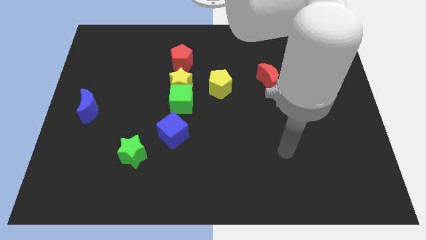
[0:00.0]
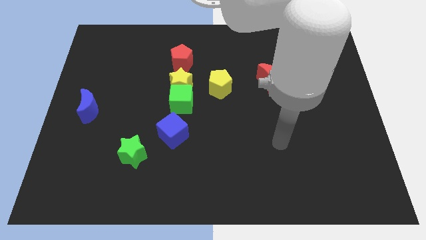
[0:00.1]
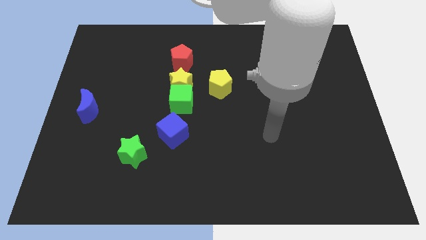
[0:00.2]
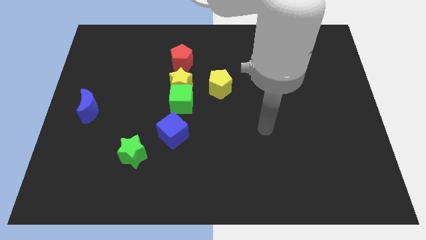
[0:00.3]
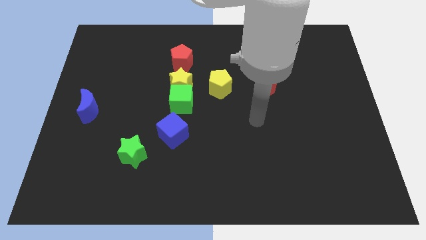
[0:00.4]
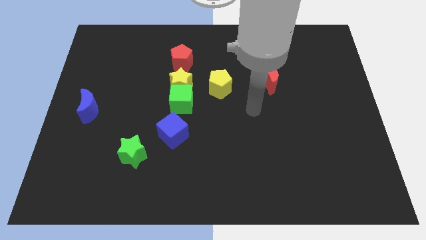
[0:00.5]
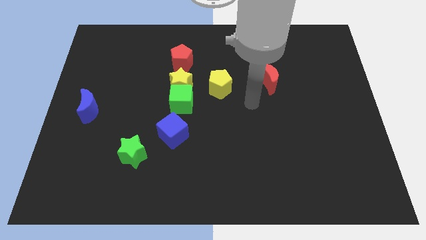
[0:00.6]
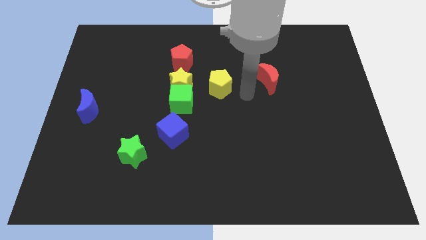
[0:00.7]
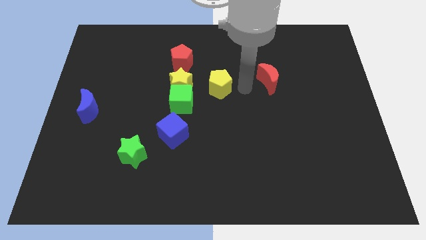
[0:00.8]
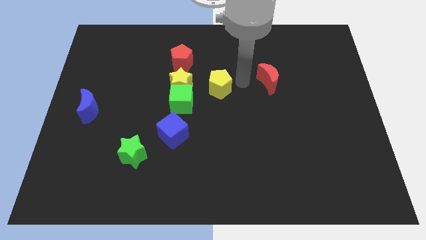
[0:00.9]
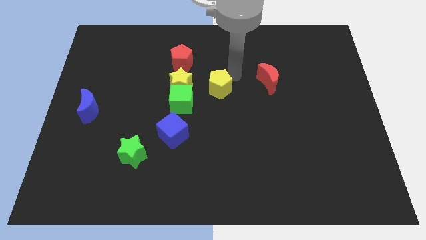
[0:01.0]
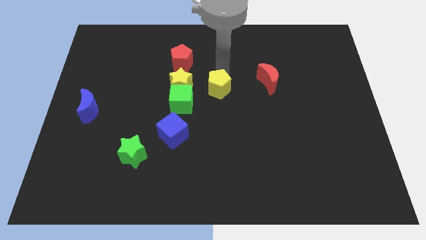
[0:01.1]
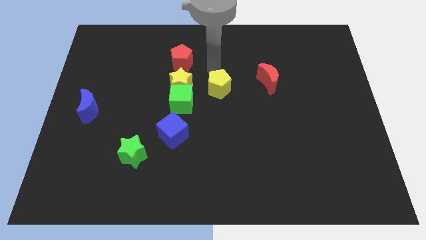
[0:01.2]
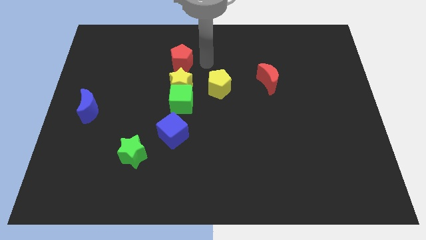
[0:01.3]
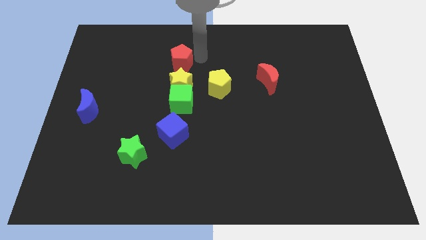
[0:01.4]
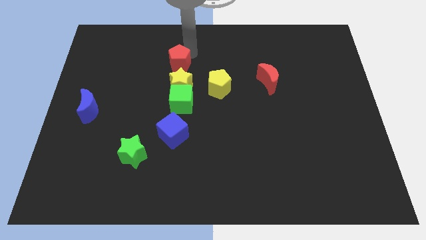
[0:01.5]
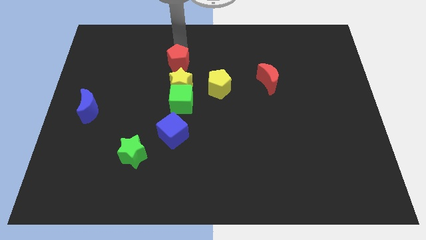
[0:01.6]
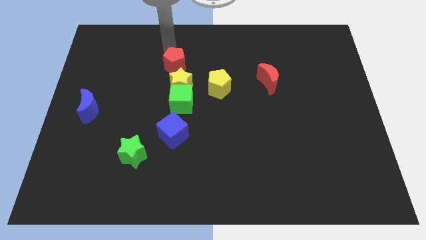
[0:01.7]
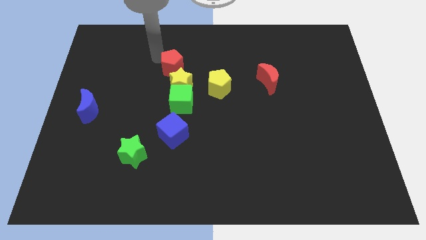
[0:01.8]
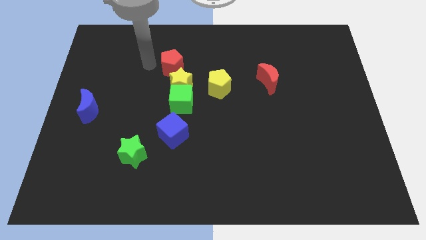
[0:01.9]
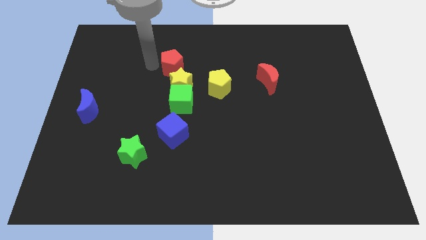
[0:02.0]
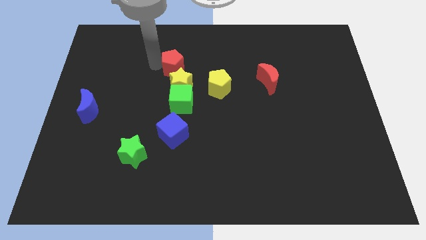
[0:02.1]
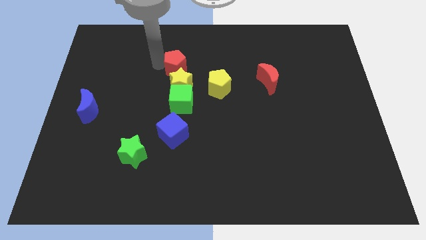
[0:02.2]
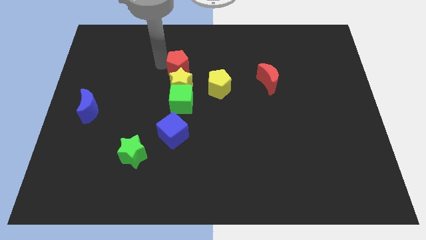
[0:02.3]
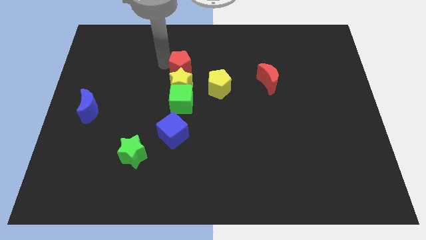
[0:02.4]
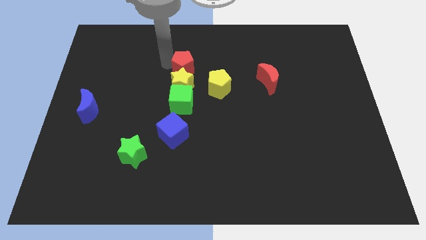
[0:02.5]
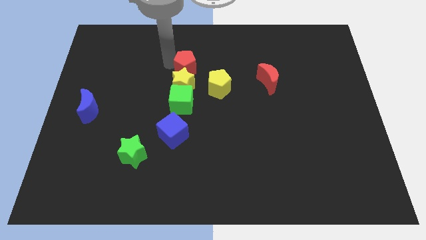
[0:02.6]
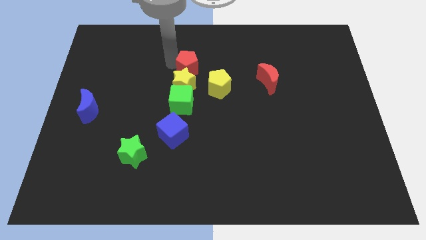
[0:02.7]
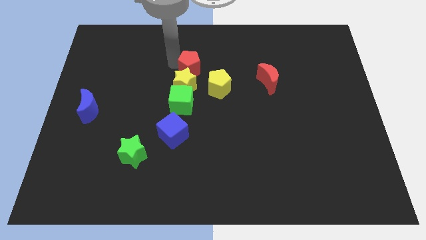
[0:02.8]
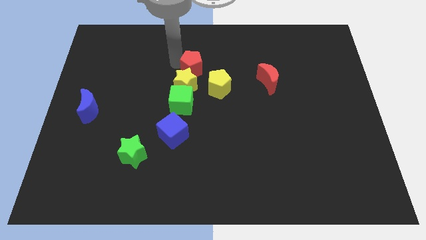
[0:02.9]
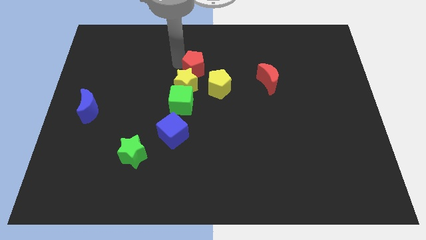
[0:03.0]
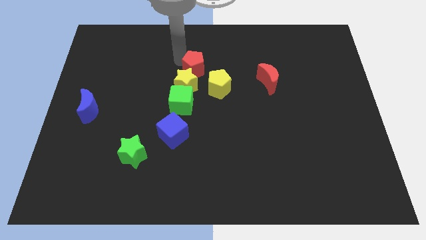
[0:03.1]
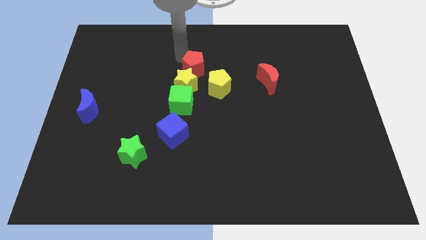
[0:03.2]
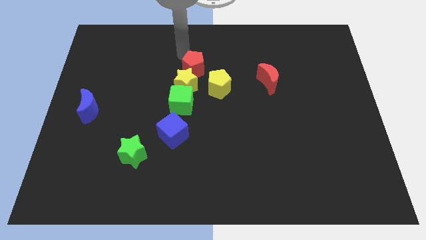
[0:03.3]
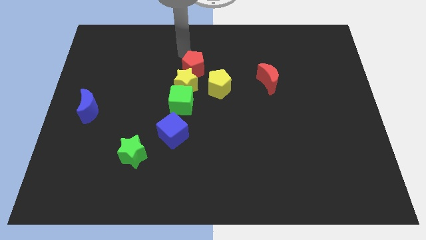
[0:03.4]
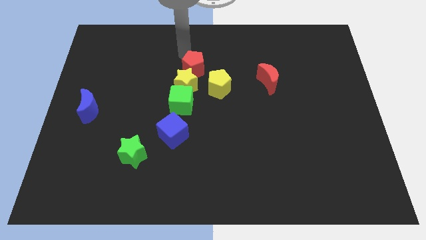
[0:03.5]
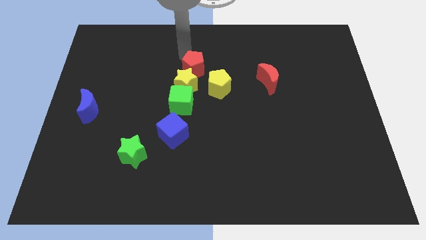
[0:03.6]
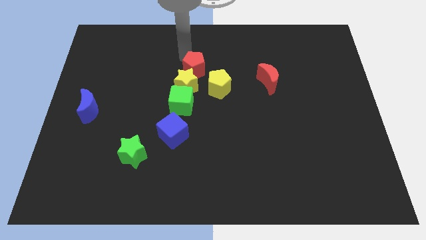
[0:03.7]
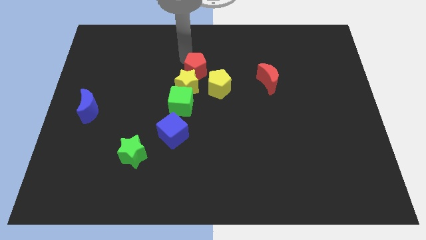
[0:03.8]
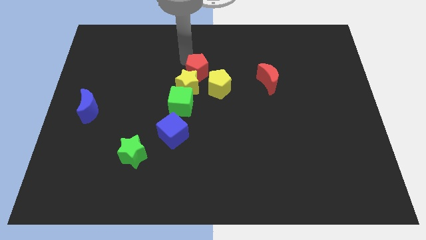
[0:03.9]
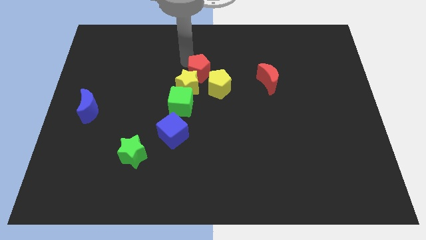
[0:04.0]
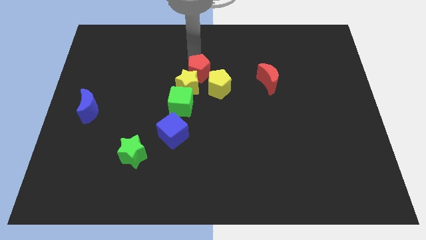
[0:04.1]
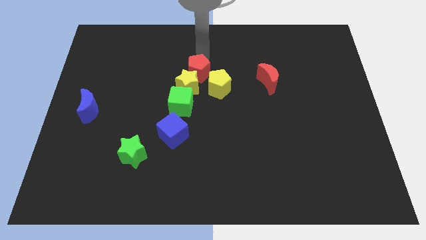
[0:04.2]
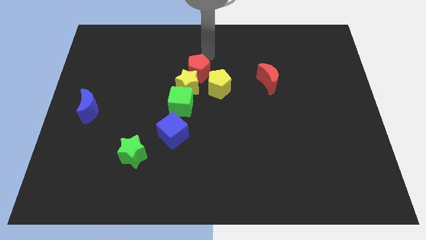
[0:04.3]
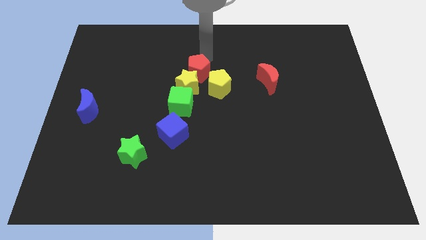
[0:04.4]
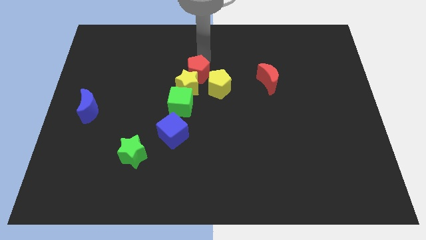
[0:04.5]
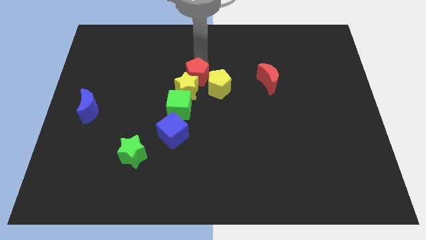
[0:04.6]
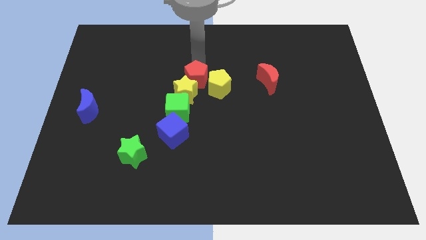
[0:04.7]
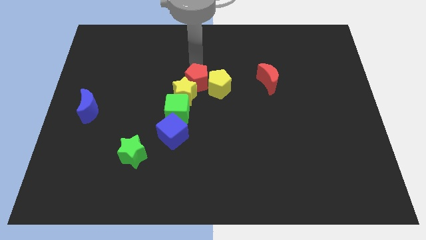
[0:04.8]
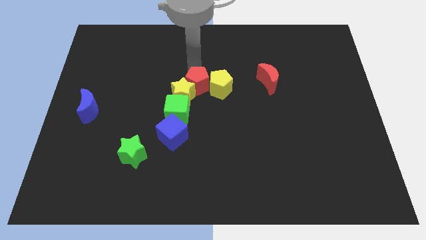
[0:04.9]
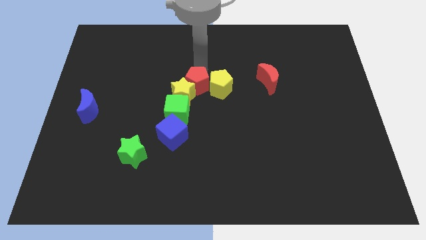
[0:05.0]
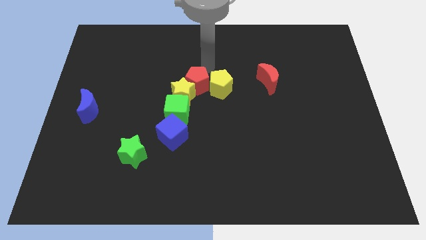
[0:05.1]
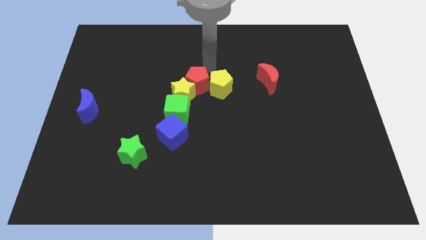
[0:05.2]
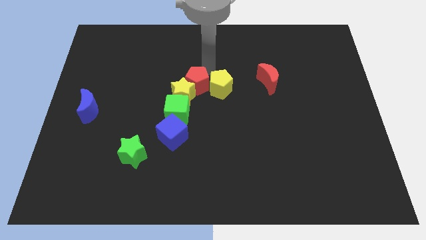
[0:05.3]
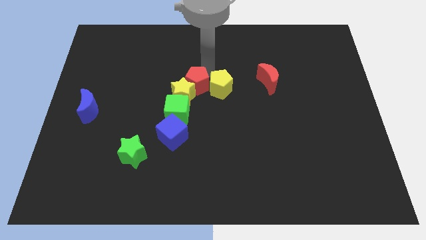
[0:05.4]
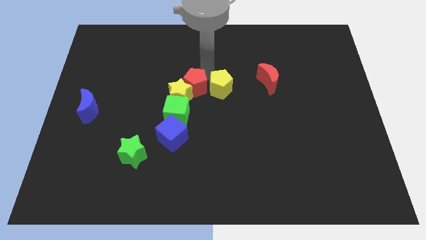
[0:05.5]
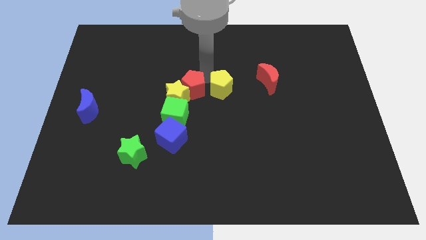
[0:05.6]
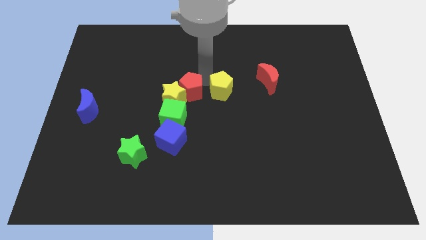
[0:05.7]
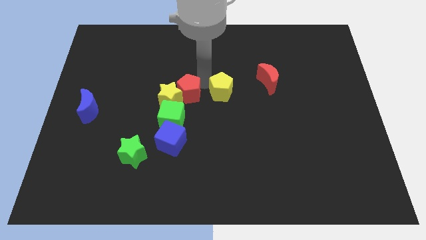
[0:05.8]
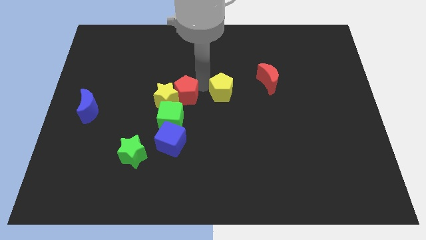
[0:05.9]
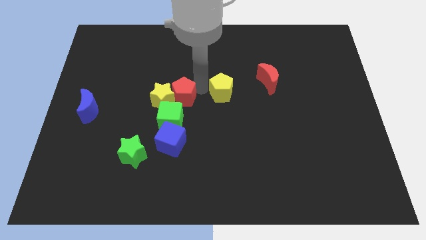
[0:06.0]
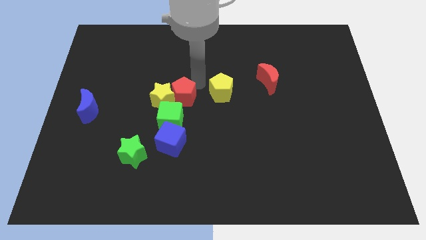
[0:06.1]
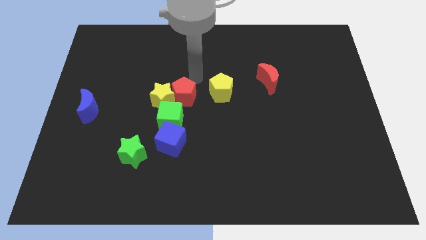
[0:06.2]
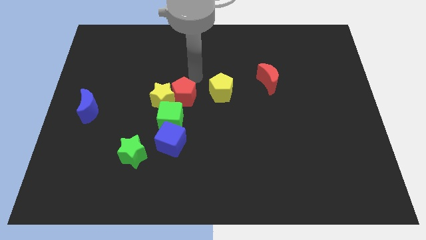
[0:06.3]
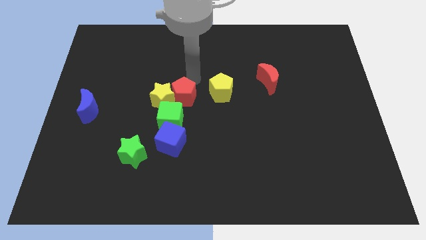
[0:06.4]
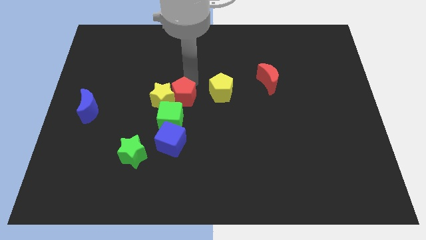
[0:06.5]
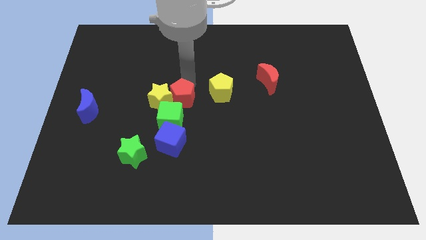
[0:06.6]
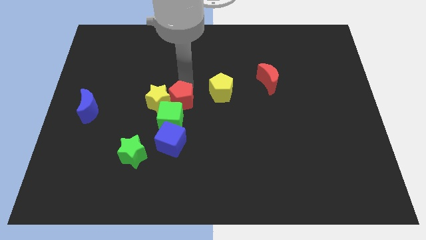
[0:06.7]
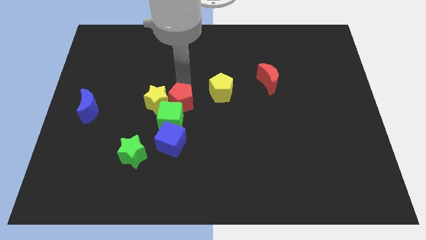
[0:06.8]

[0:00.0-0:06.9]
push the red pentagon close to the green cube

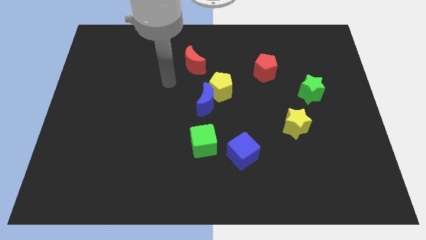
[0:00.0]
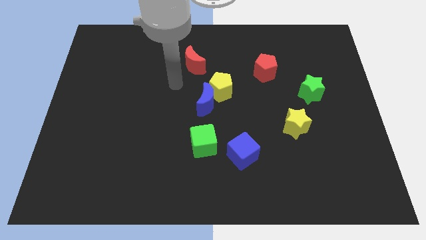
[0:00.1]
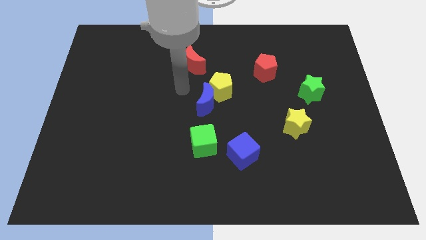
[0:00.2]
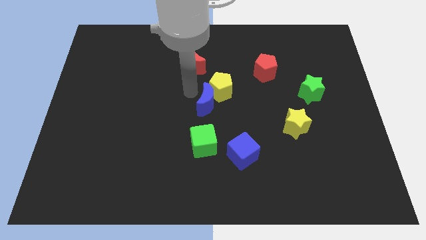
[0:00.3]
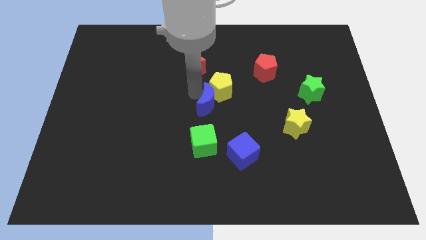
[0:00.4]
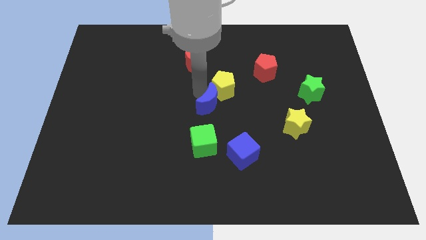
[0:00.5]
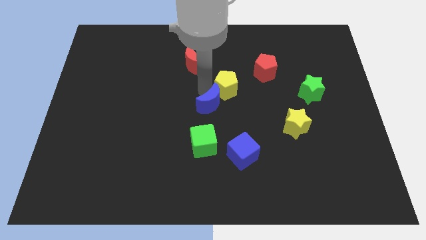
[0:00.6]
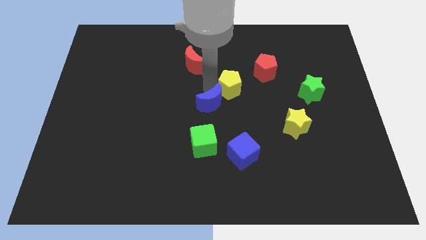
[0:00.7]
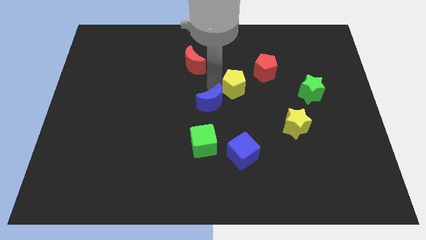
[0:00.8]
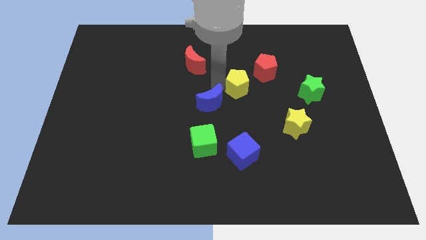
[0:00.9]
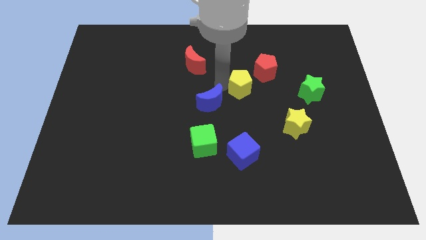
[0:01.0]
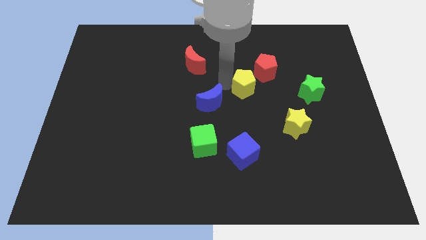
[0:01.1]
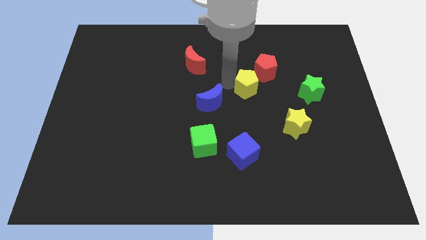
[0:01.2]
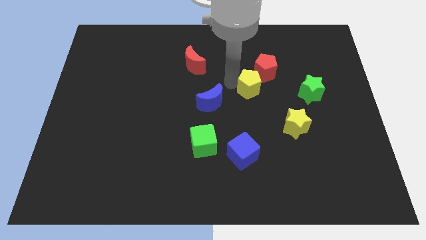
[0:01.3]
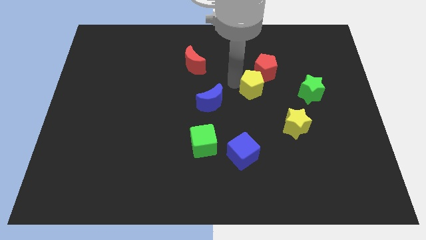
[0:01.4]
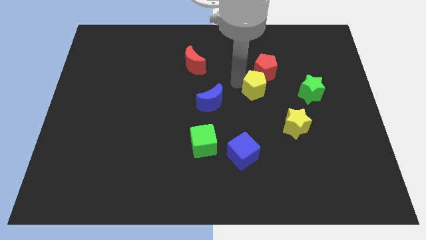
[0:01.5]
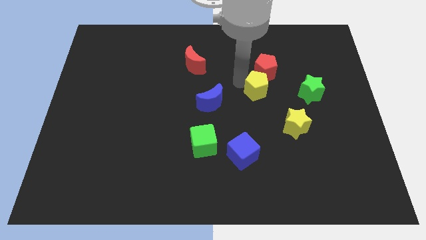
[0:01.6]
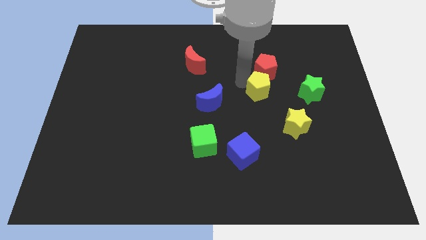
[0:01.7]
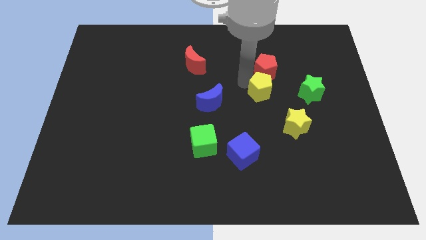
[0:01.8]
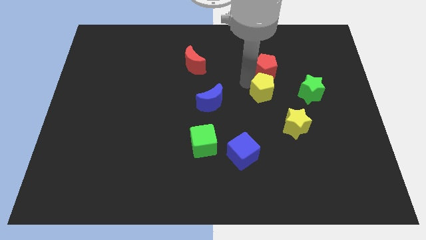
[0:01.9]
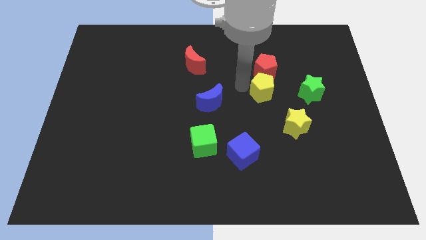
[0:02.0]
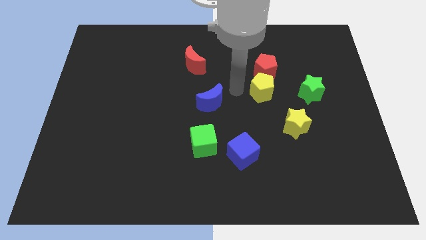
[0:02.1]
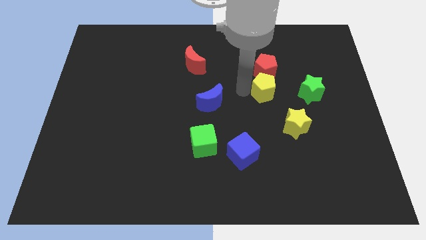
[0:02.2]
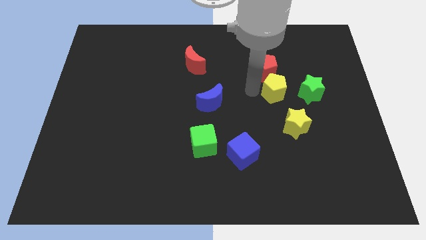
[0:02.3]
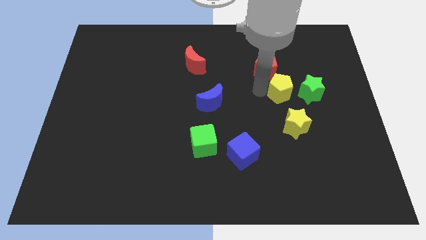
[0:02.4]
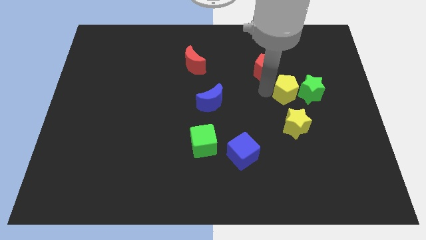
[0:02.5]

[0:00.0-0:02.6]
put the yellow pentagon next to the green star
